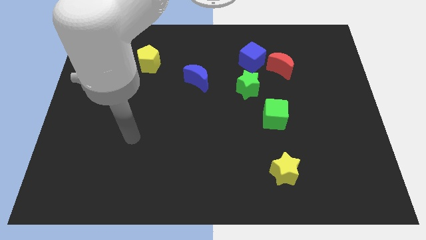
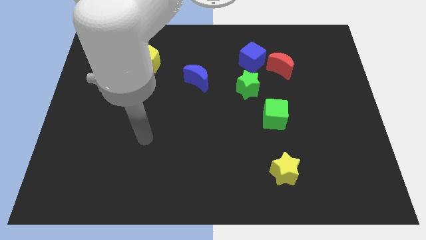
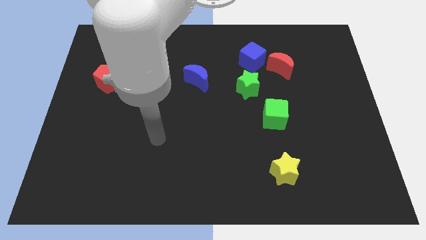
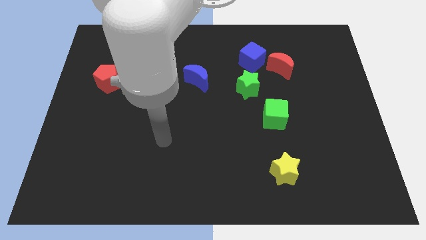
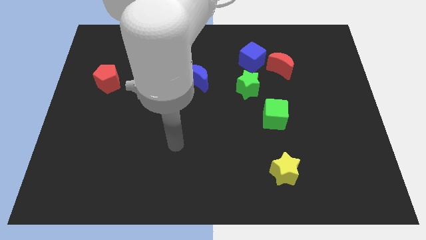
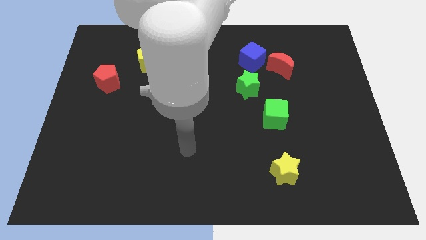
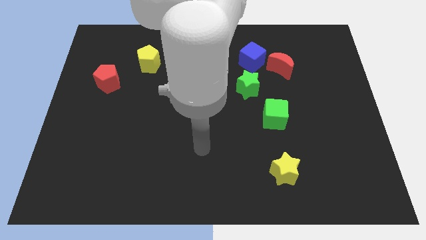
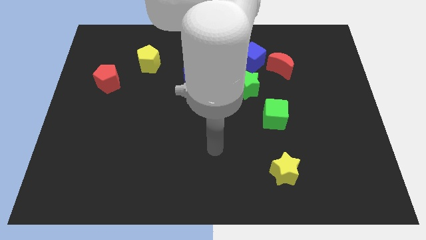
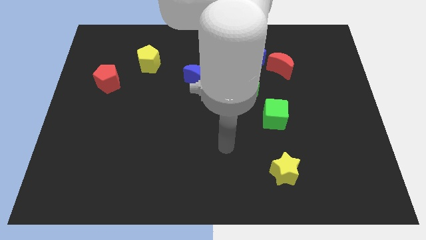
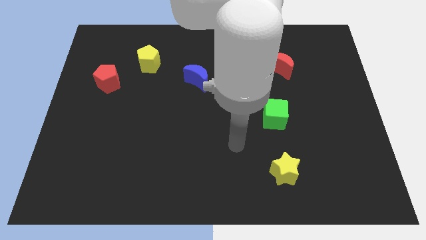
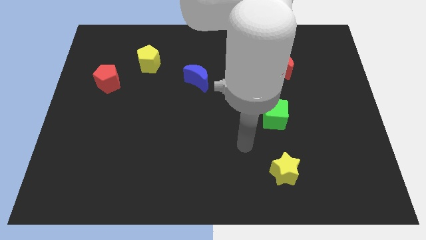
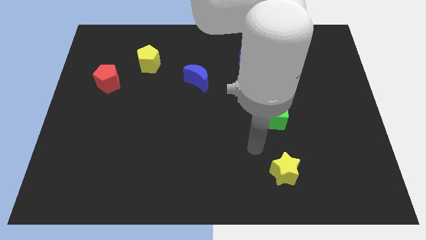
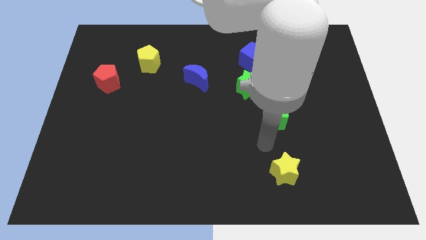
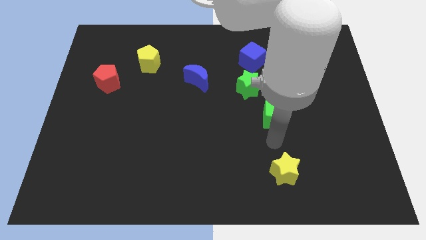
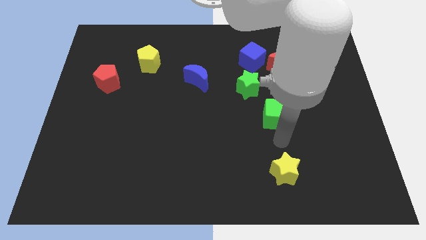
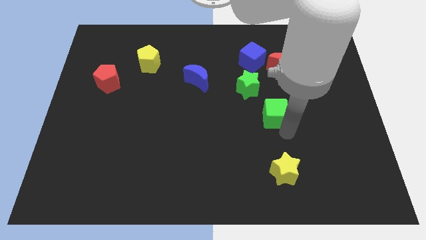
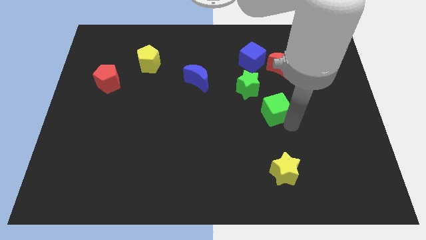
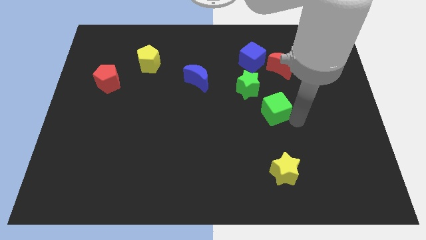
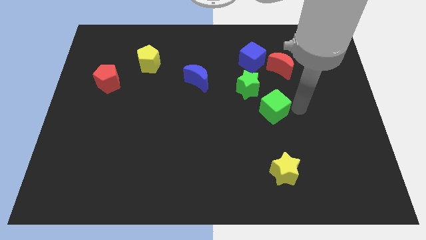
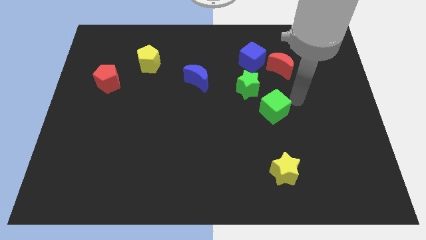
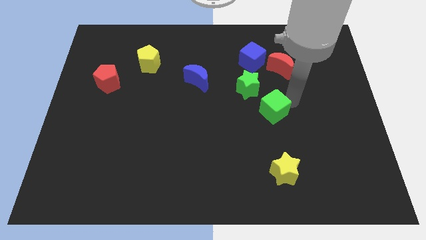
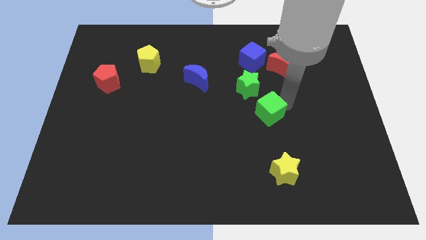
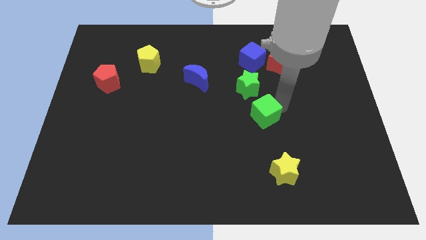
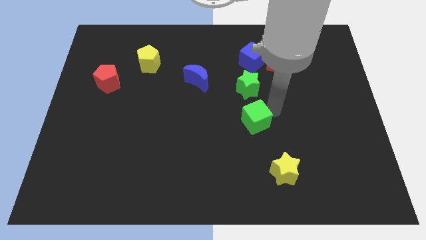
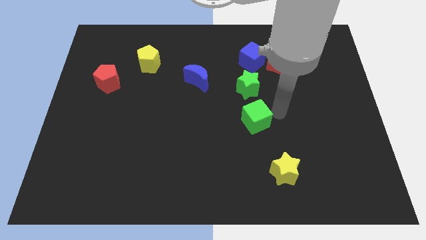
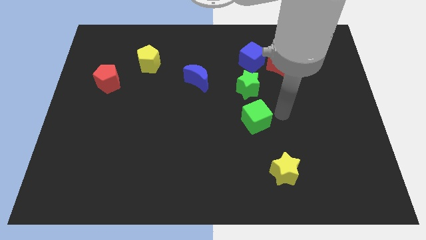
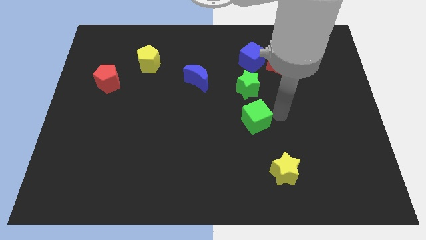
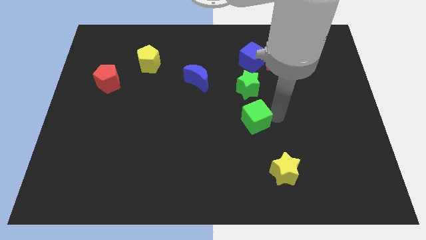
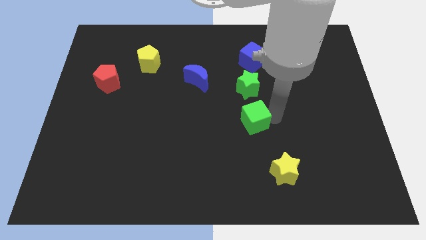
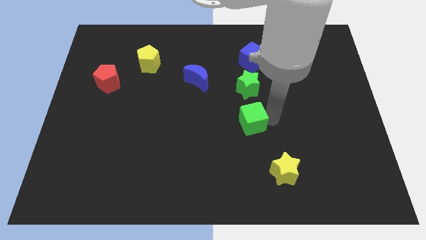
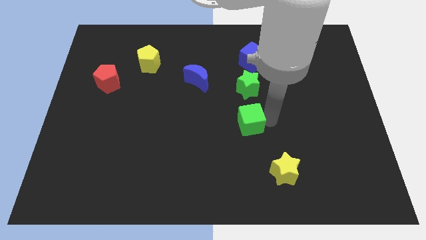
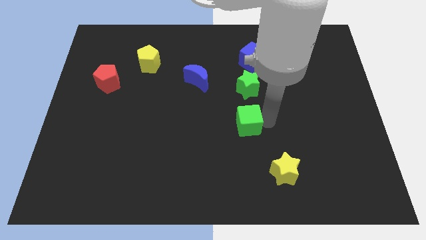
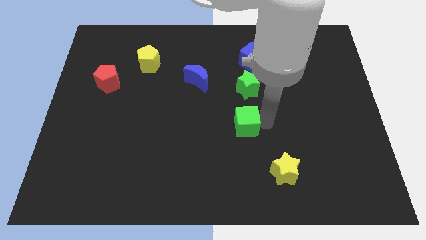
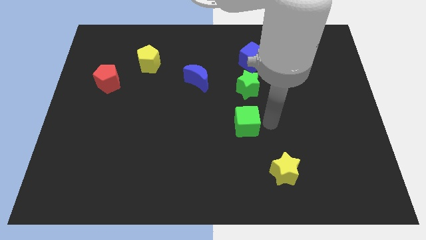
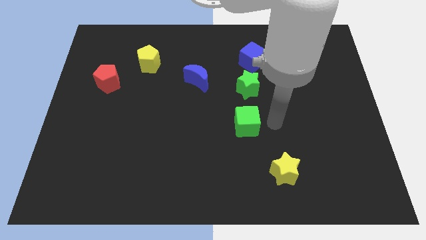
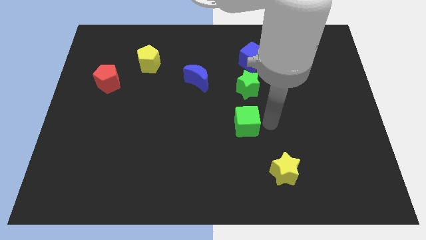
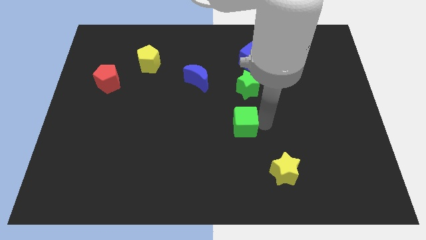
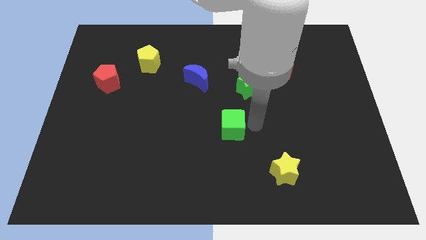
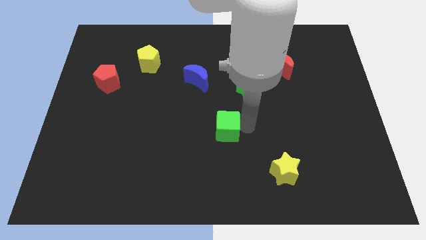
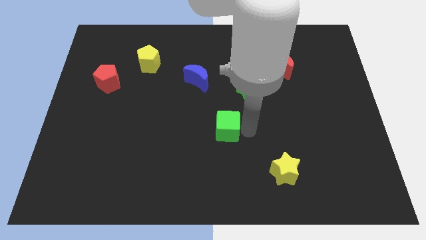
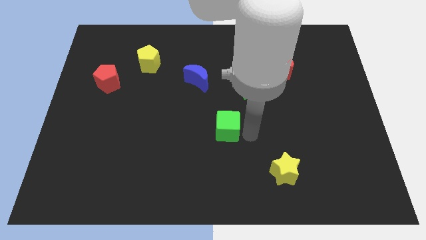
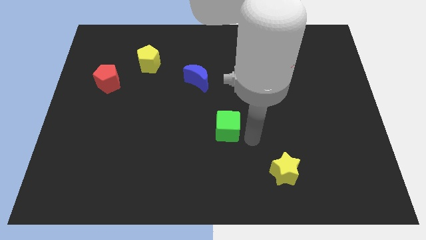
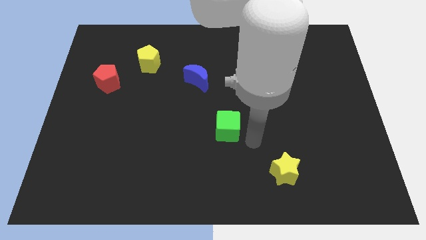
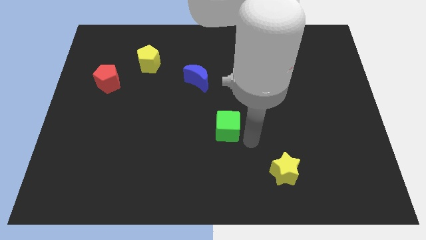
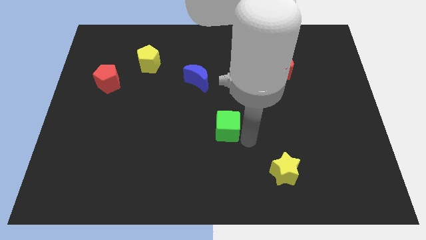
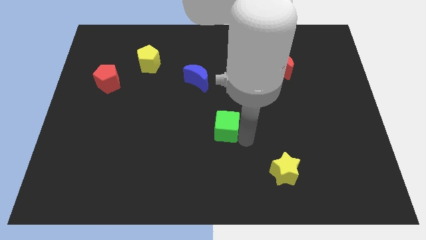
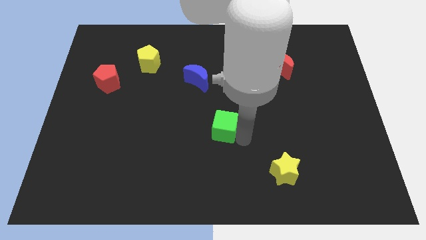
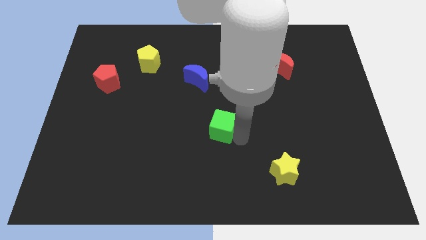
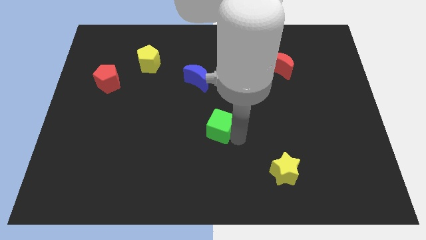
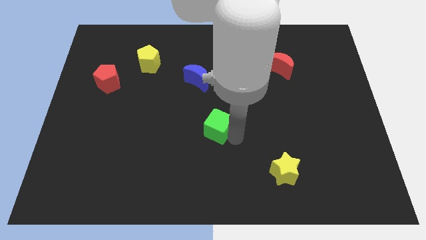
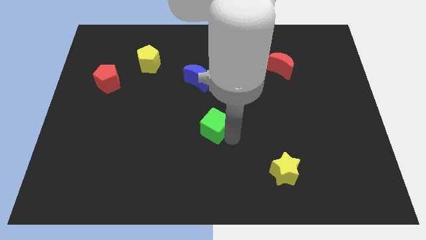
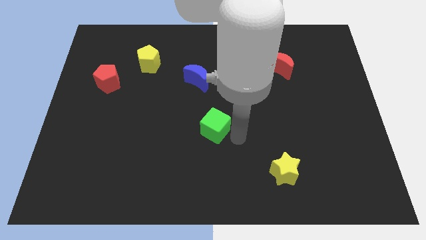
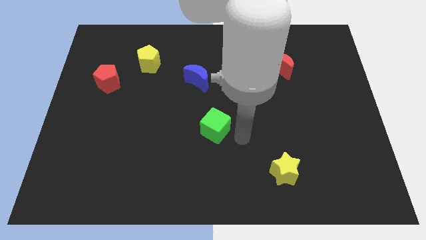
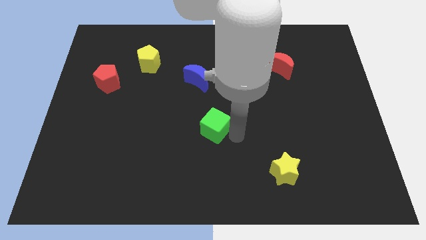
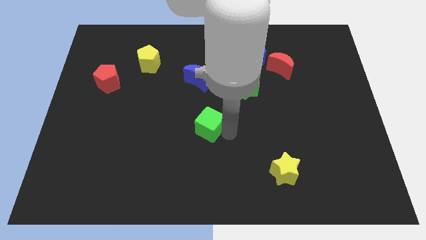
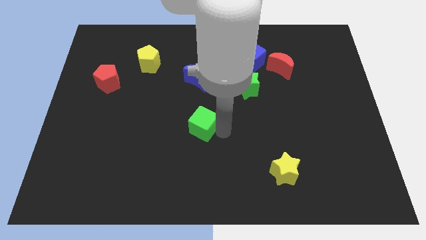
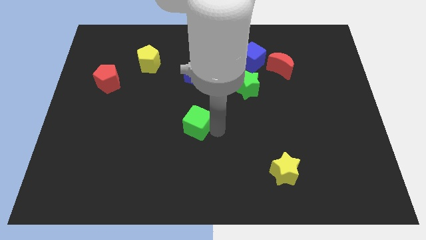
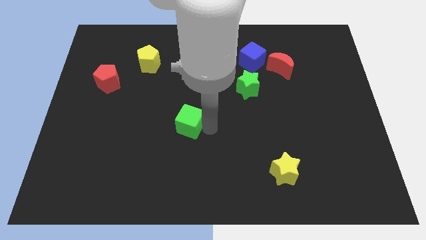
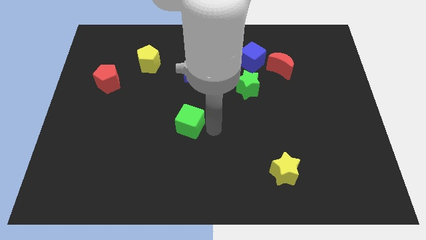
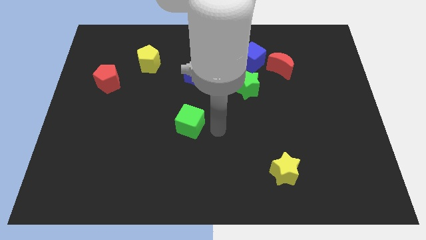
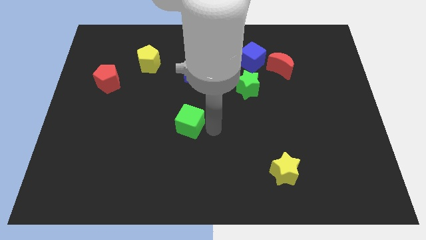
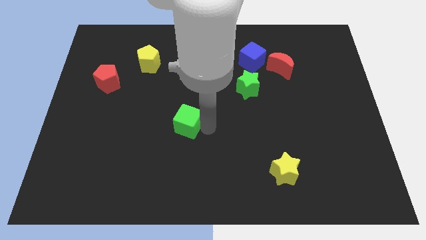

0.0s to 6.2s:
move the green cube left

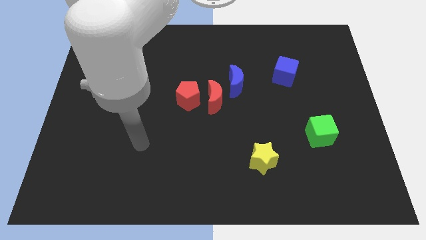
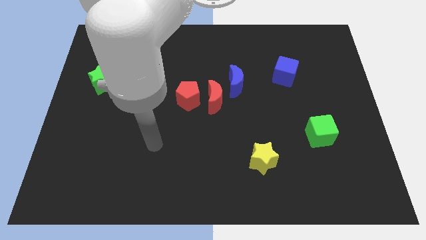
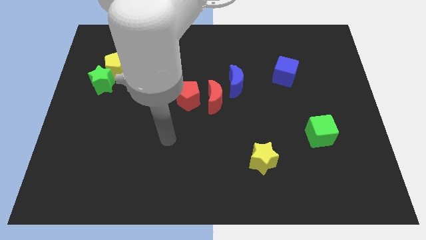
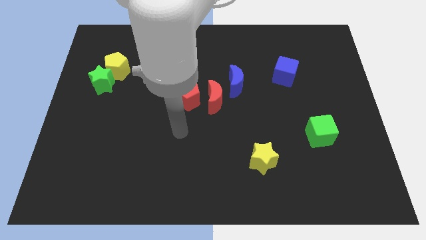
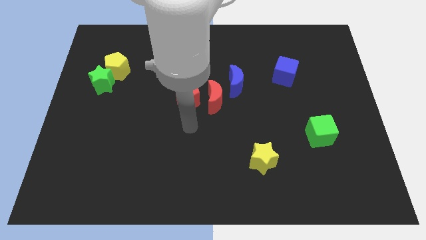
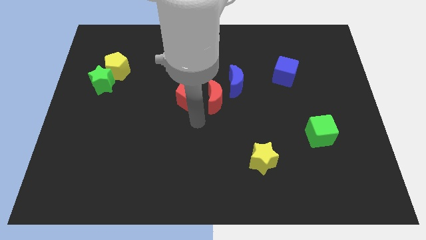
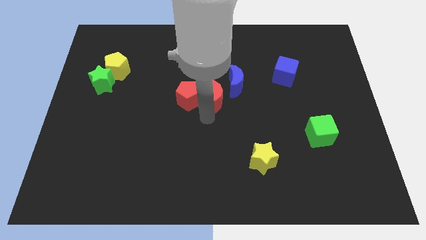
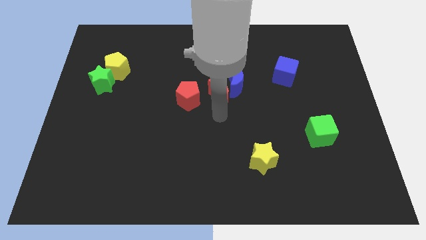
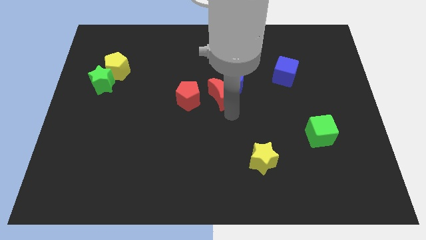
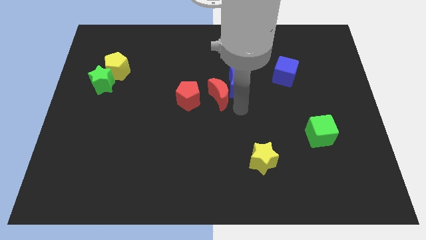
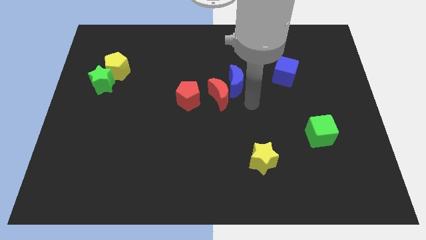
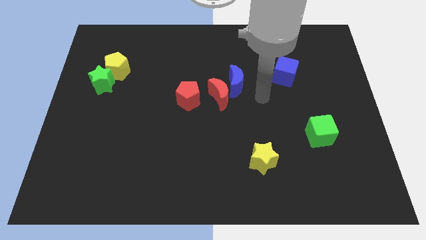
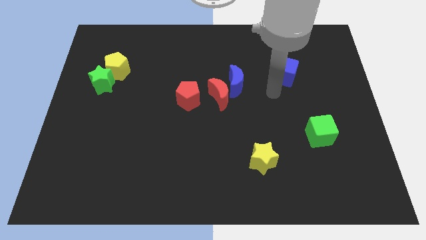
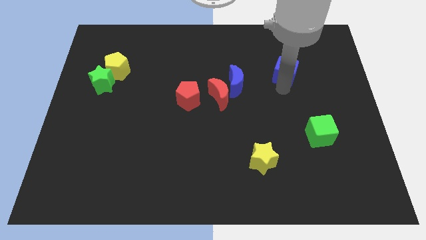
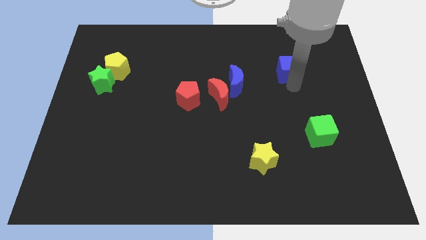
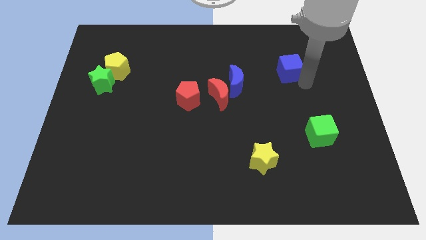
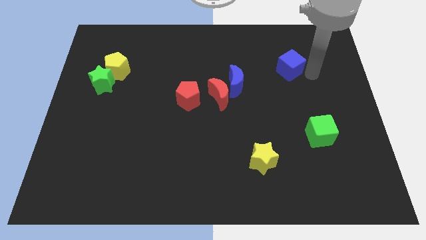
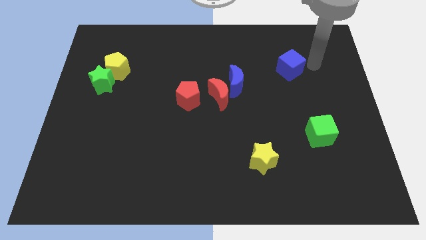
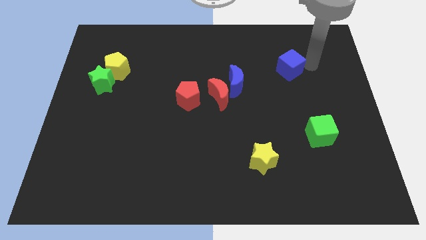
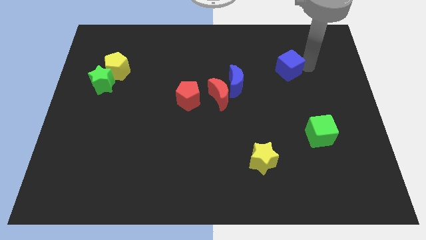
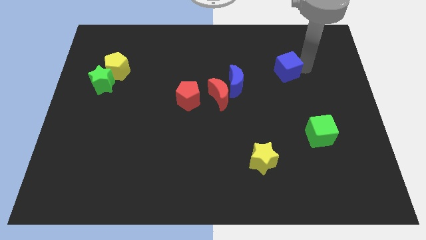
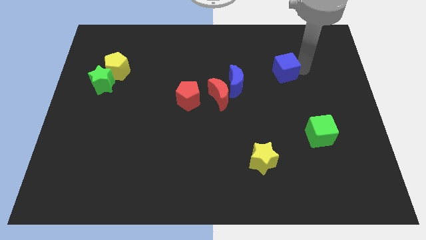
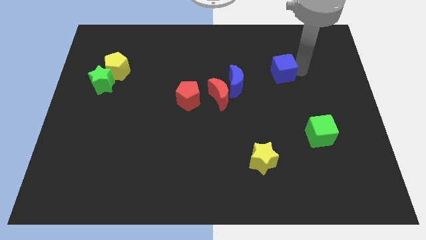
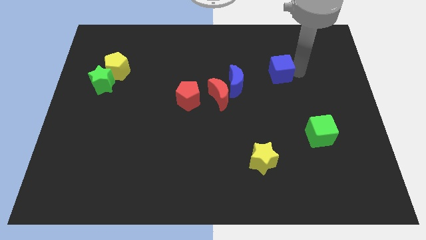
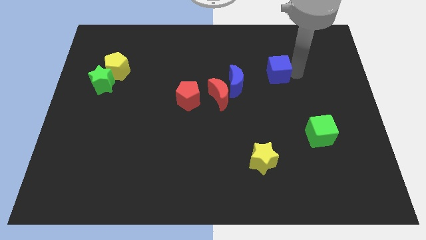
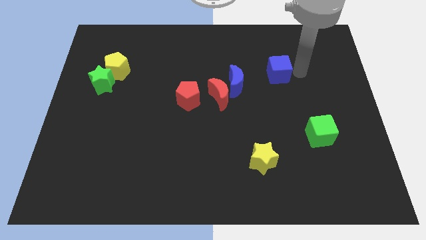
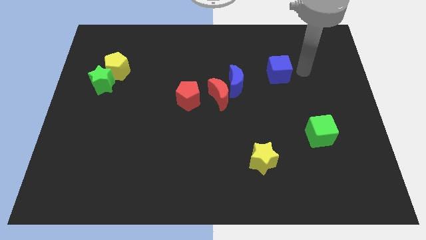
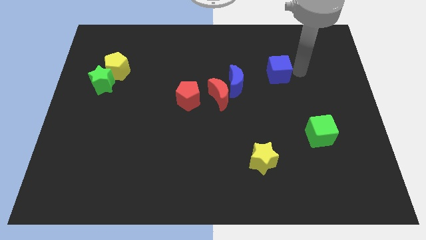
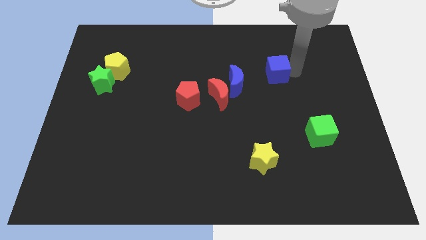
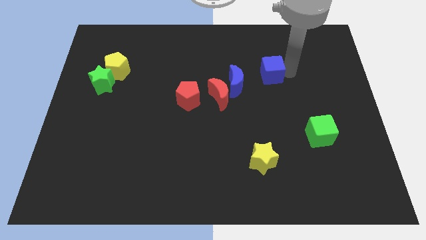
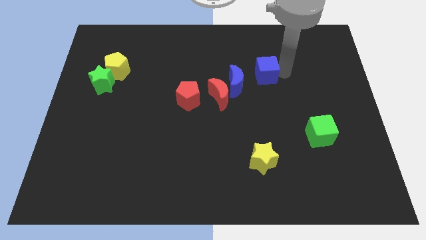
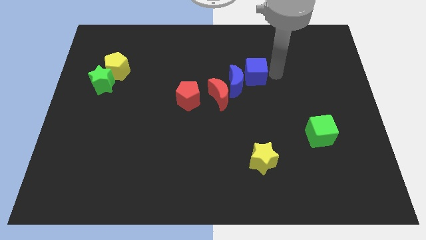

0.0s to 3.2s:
slightly move the blue cube left
